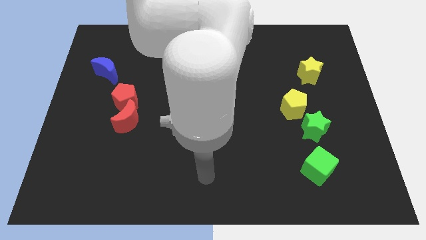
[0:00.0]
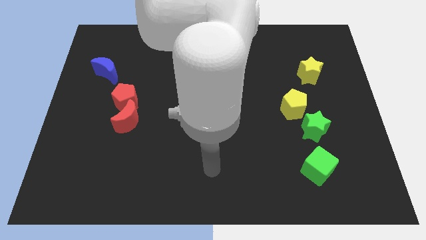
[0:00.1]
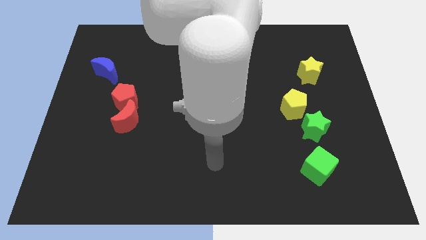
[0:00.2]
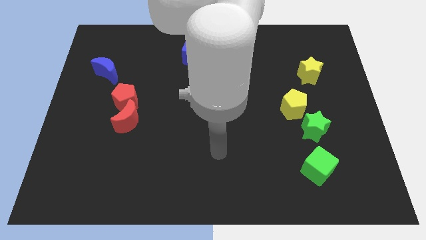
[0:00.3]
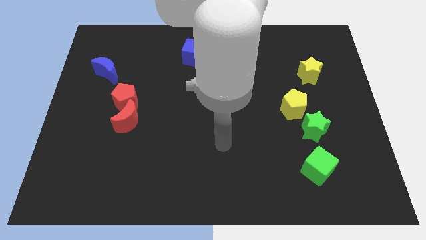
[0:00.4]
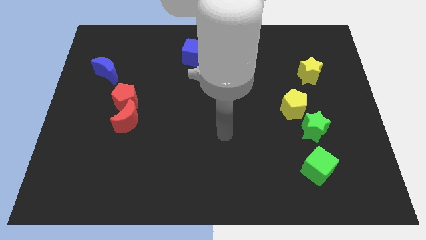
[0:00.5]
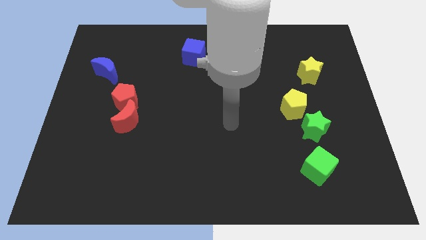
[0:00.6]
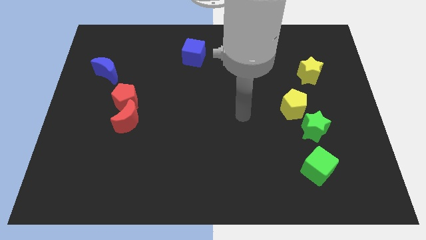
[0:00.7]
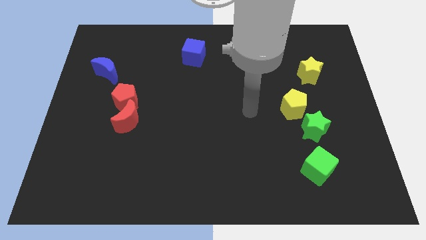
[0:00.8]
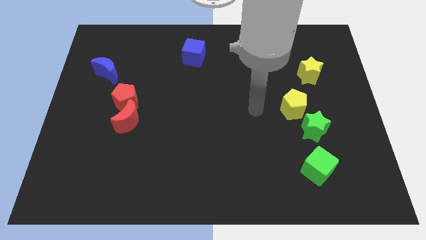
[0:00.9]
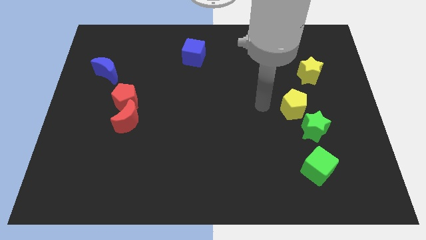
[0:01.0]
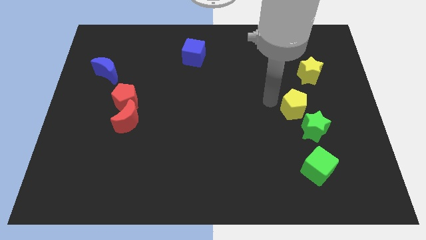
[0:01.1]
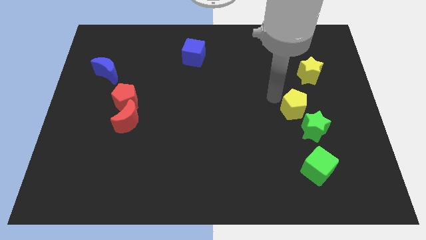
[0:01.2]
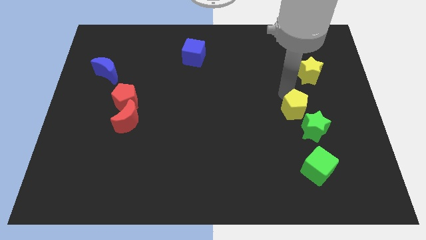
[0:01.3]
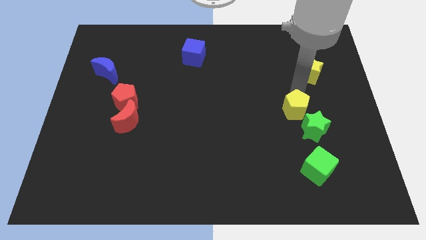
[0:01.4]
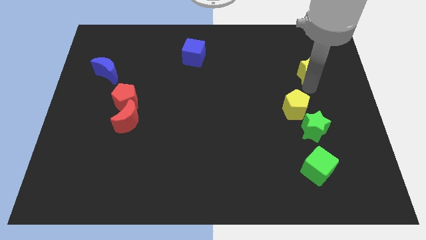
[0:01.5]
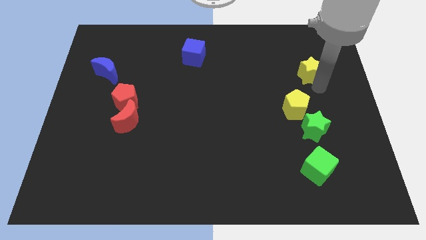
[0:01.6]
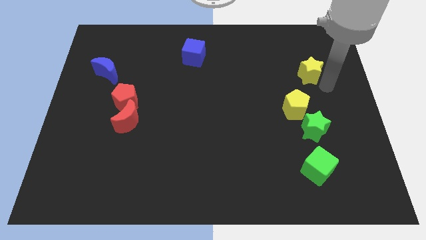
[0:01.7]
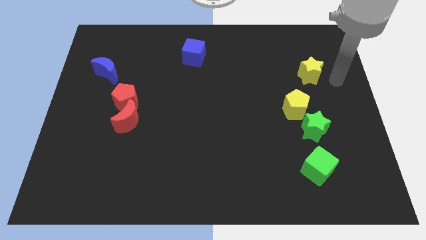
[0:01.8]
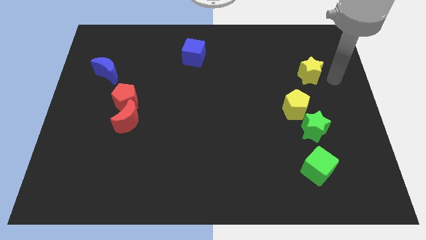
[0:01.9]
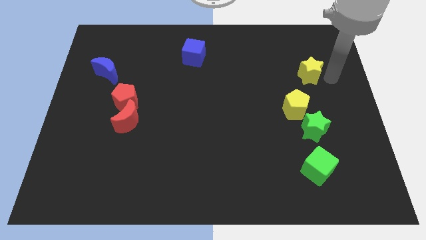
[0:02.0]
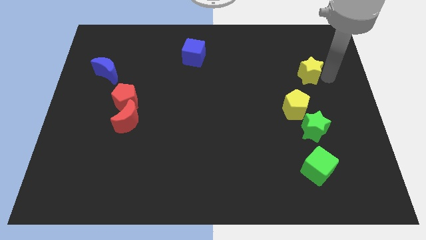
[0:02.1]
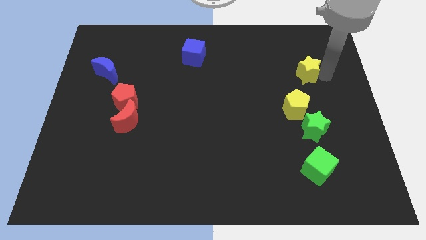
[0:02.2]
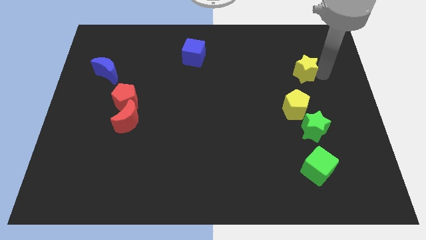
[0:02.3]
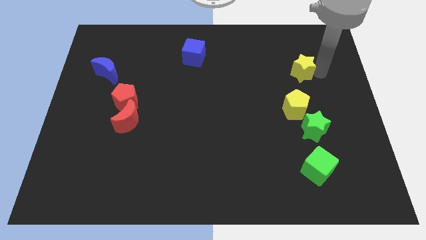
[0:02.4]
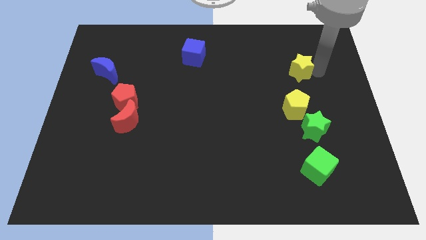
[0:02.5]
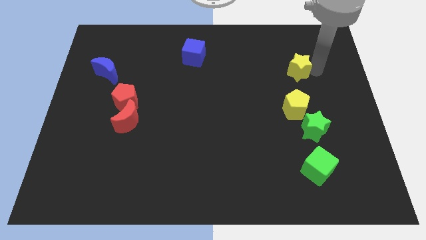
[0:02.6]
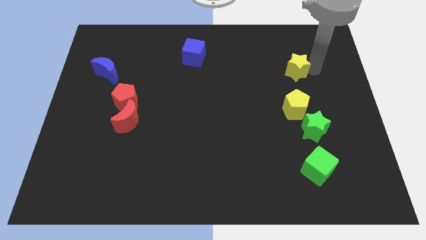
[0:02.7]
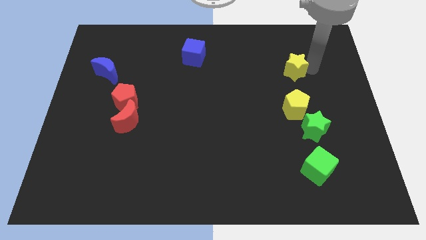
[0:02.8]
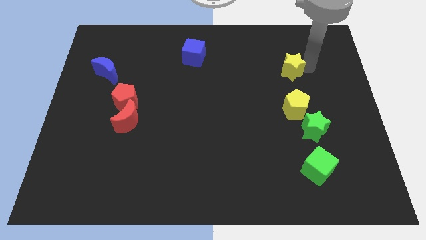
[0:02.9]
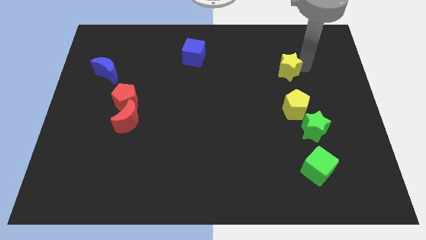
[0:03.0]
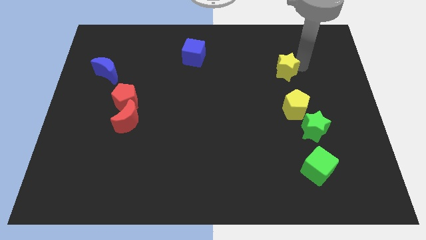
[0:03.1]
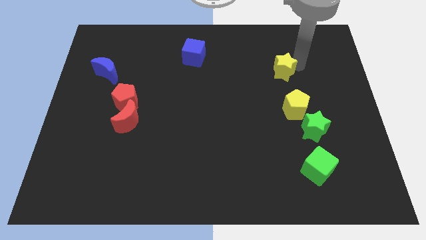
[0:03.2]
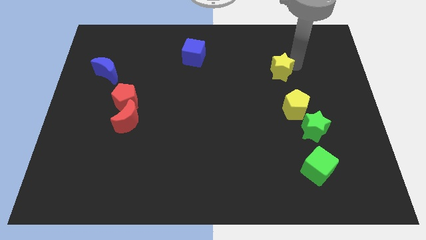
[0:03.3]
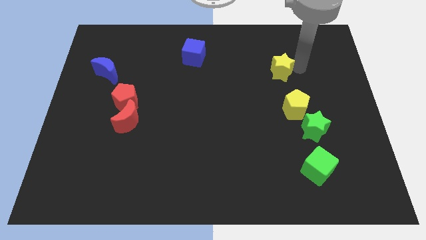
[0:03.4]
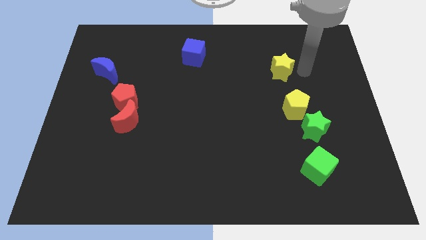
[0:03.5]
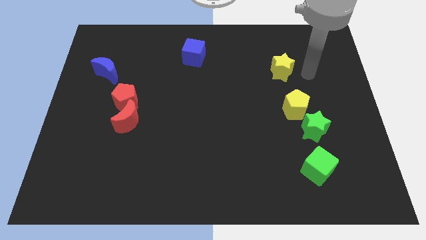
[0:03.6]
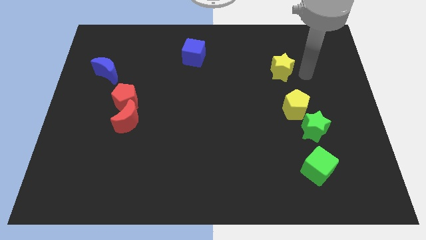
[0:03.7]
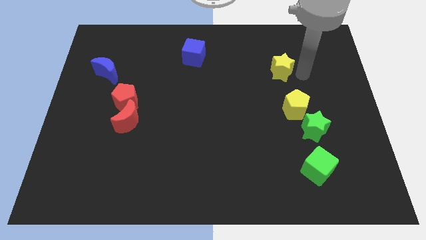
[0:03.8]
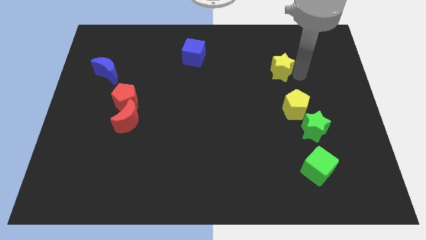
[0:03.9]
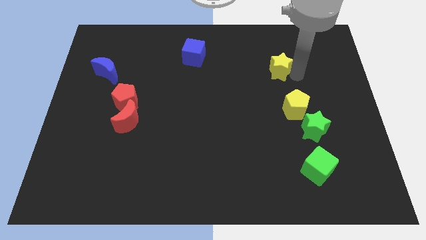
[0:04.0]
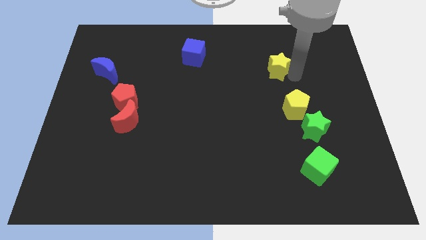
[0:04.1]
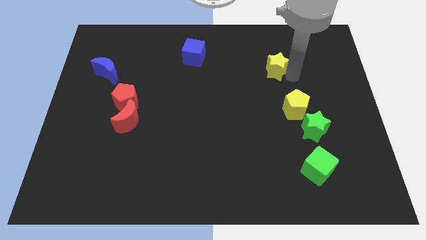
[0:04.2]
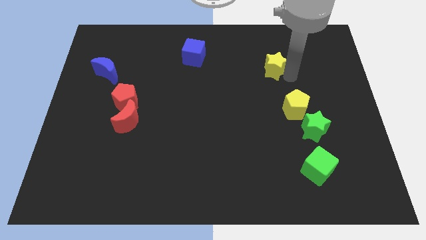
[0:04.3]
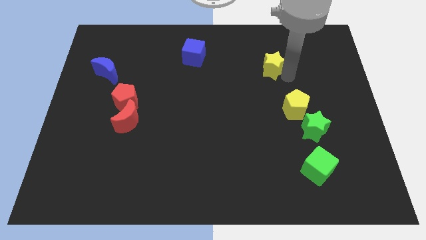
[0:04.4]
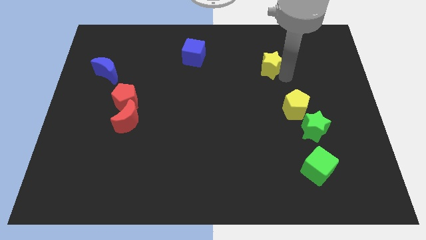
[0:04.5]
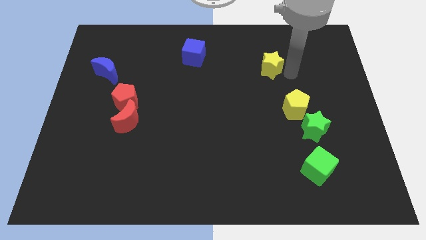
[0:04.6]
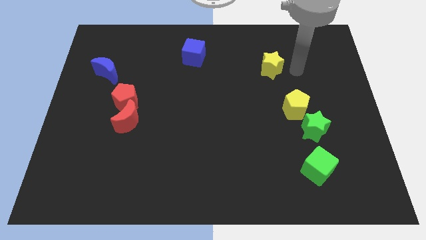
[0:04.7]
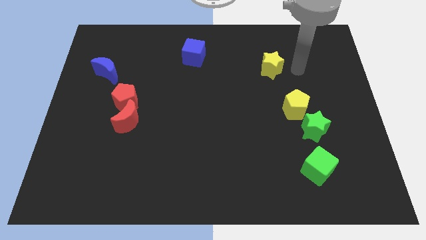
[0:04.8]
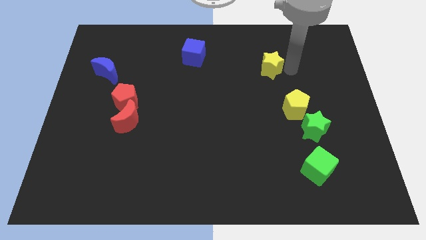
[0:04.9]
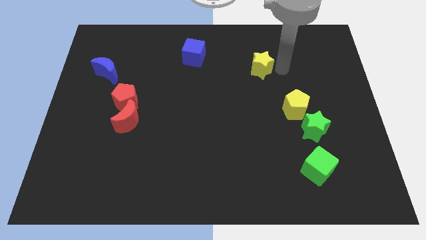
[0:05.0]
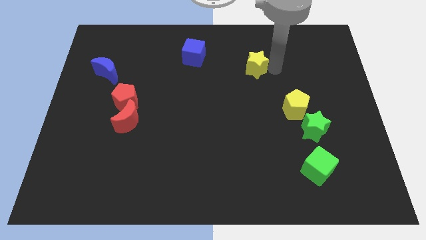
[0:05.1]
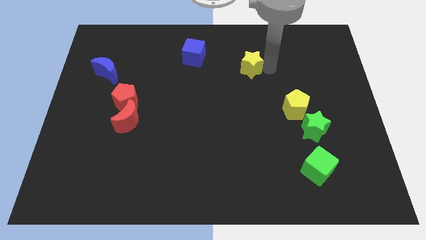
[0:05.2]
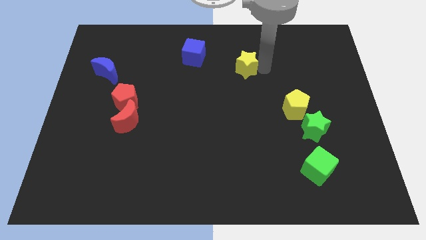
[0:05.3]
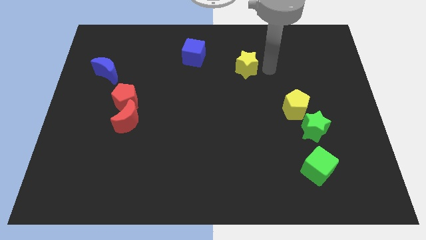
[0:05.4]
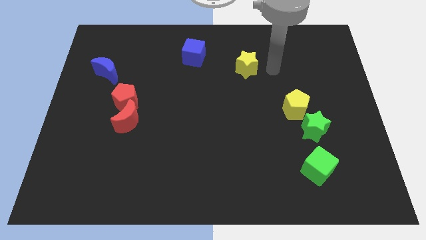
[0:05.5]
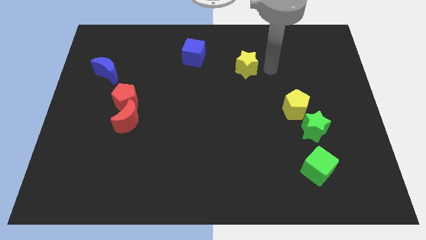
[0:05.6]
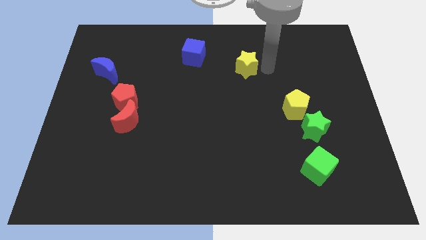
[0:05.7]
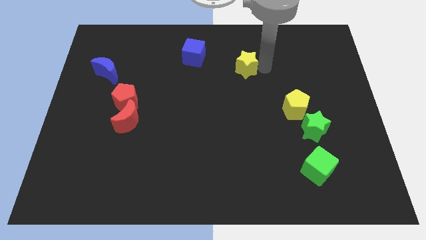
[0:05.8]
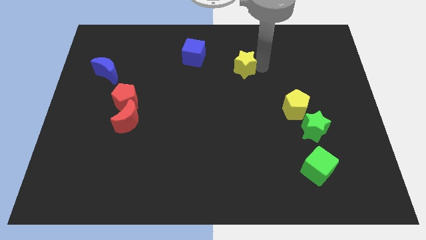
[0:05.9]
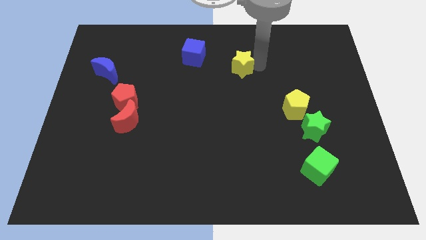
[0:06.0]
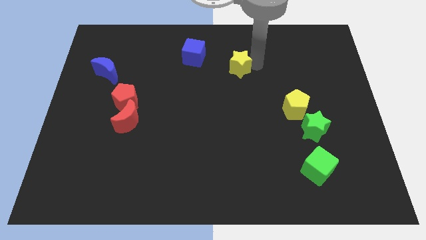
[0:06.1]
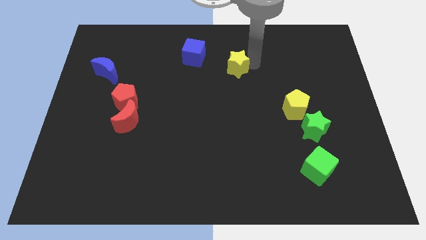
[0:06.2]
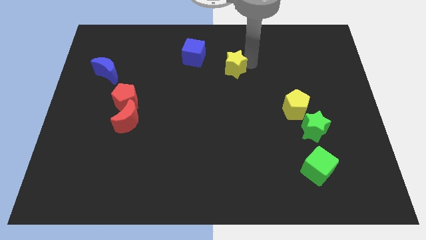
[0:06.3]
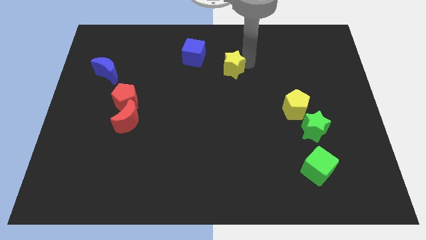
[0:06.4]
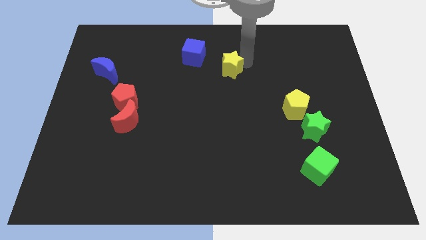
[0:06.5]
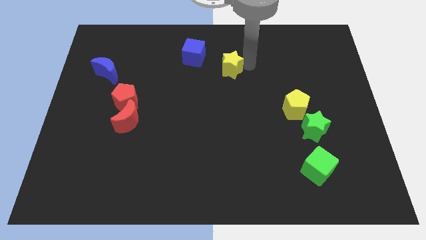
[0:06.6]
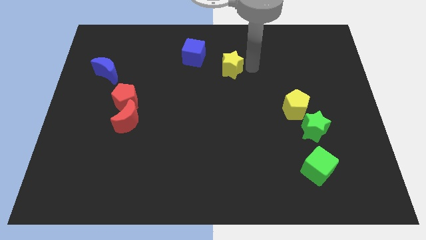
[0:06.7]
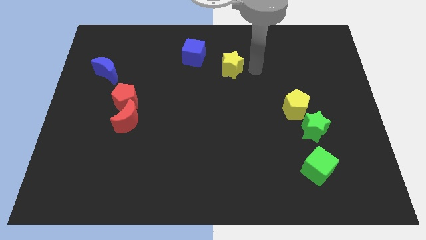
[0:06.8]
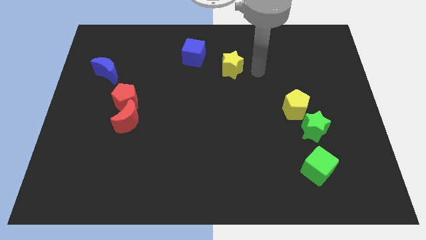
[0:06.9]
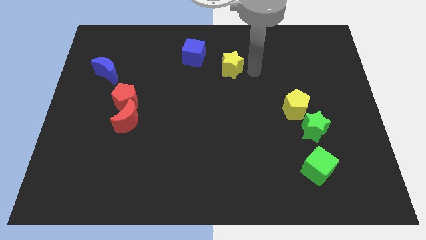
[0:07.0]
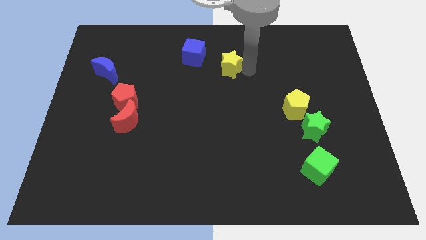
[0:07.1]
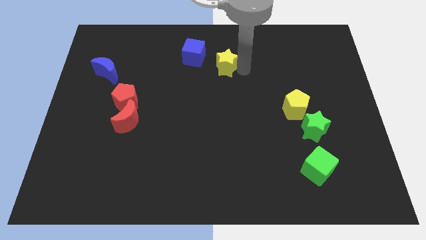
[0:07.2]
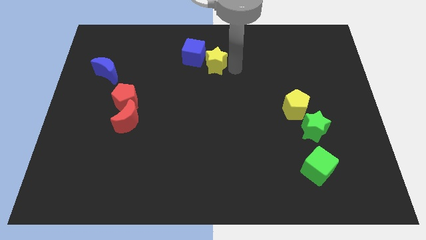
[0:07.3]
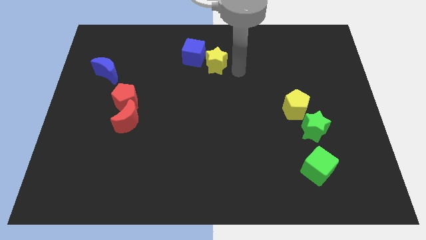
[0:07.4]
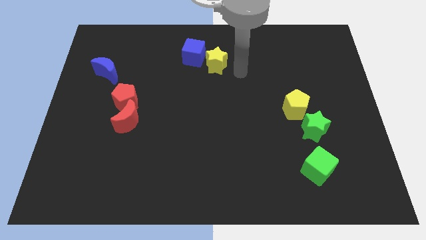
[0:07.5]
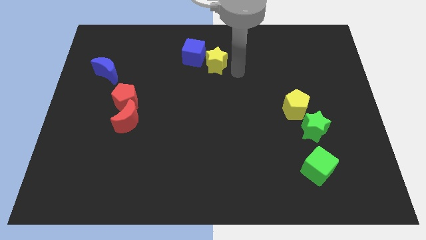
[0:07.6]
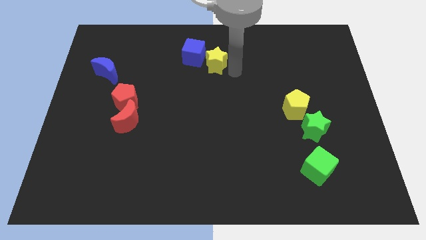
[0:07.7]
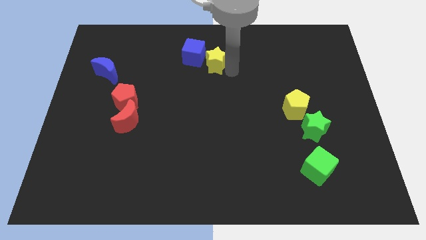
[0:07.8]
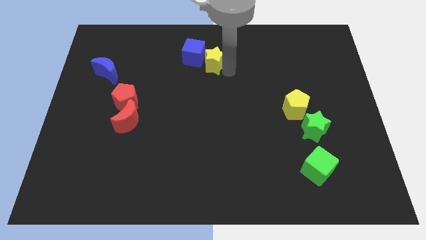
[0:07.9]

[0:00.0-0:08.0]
slide the yellow star to the blue cube

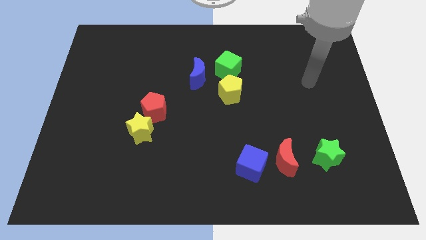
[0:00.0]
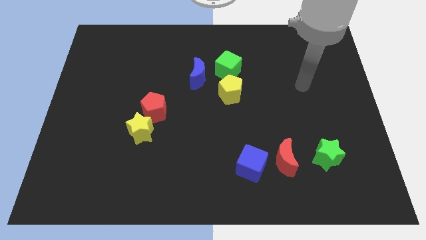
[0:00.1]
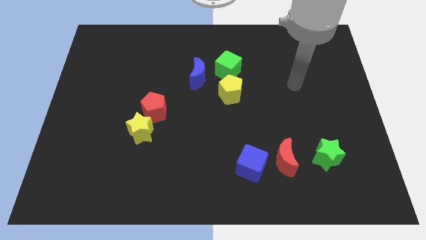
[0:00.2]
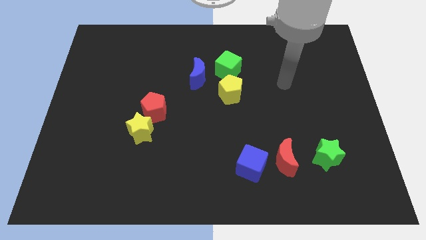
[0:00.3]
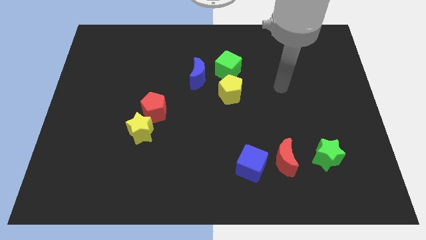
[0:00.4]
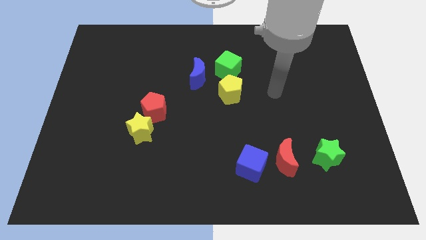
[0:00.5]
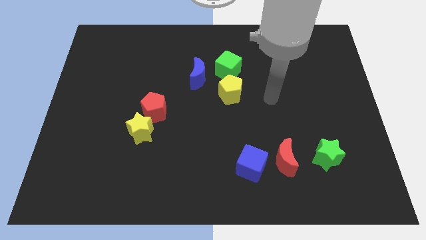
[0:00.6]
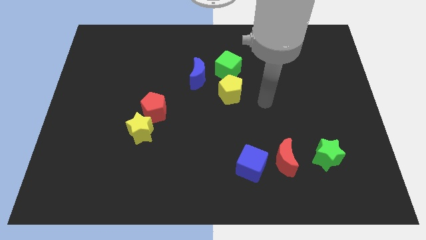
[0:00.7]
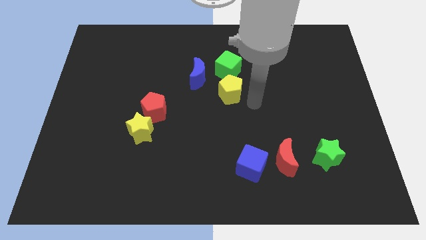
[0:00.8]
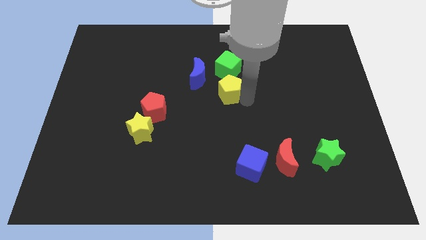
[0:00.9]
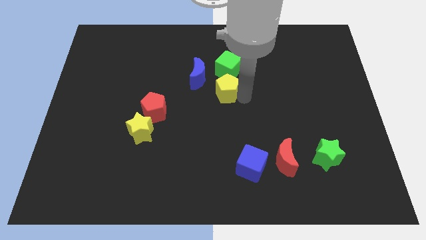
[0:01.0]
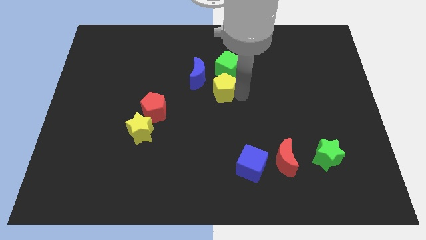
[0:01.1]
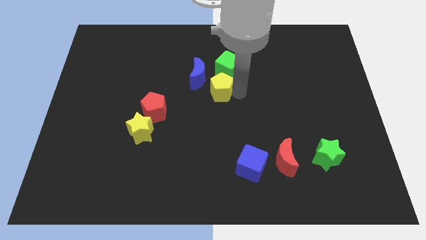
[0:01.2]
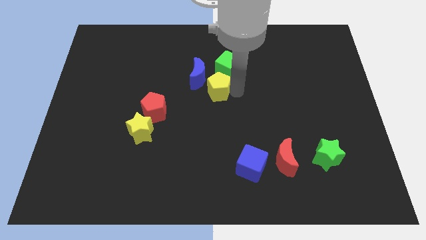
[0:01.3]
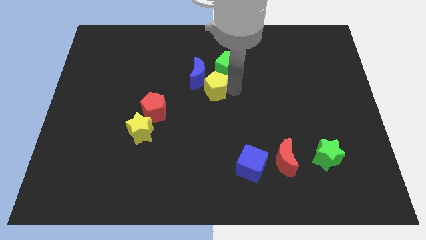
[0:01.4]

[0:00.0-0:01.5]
move the yellow pentagon next to the blue moon
